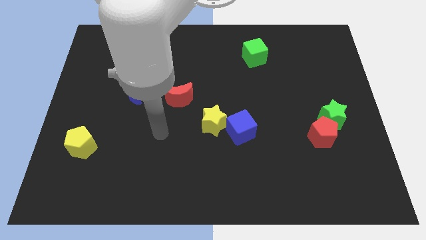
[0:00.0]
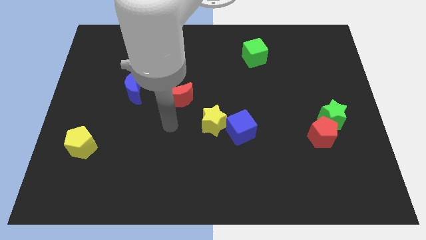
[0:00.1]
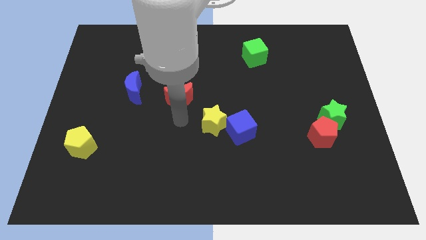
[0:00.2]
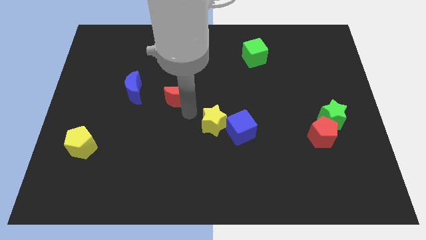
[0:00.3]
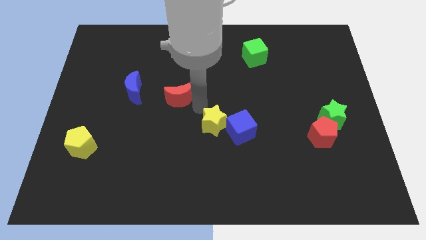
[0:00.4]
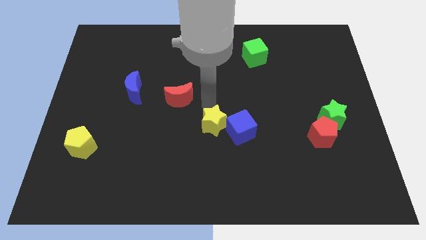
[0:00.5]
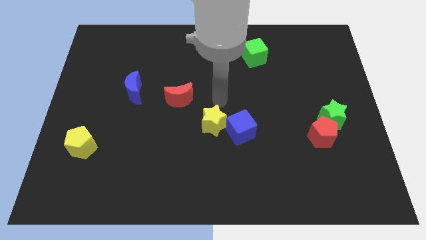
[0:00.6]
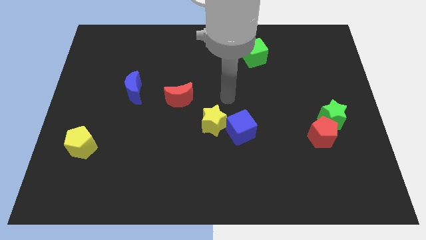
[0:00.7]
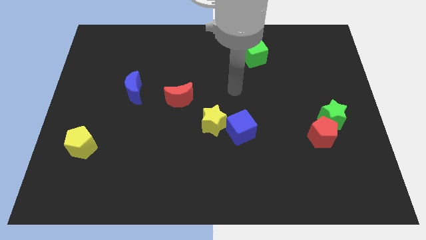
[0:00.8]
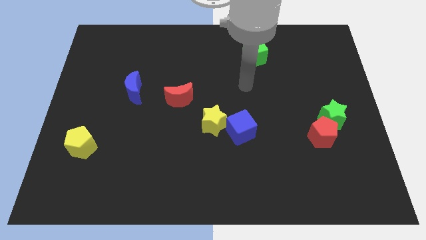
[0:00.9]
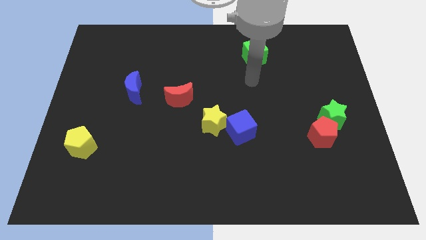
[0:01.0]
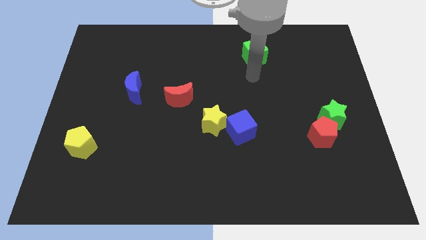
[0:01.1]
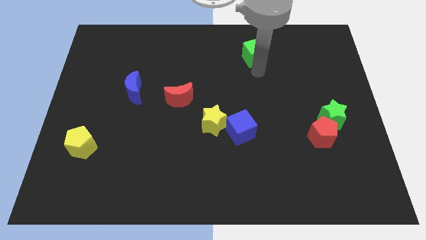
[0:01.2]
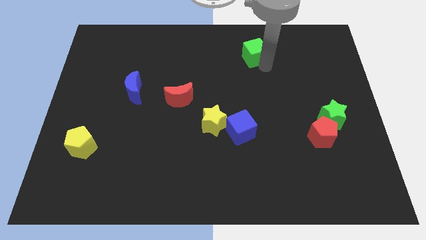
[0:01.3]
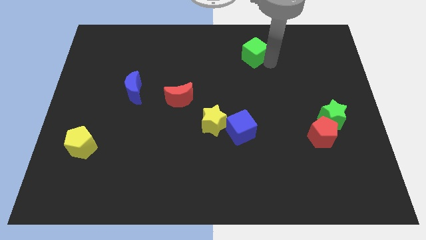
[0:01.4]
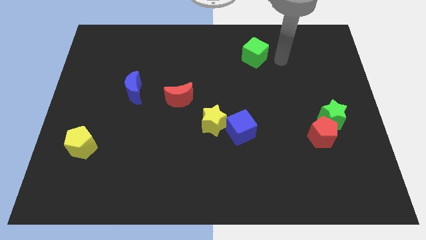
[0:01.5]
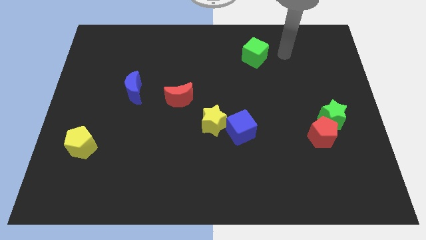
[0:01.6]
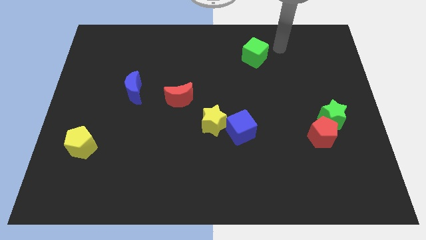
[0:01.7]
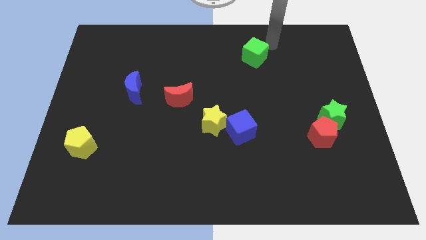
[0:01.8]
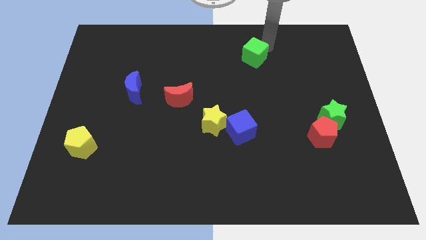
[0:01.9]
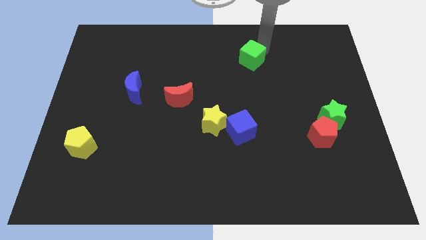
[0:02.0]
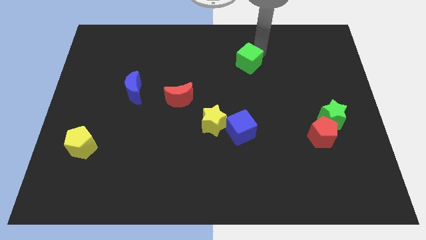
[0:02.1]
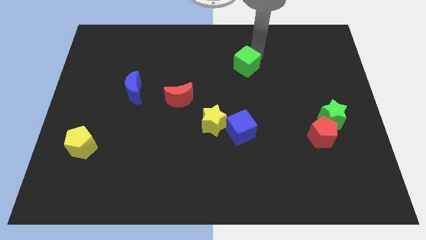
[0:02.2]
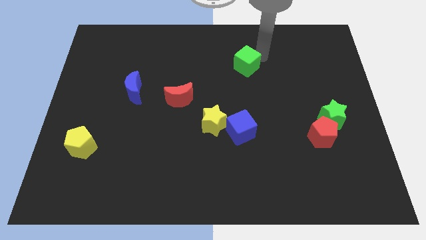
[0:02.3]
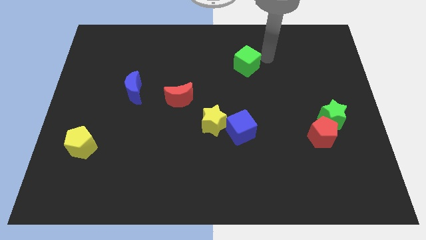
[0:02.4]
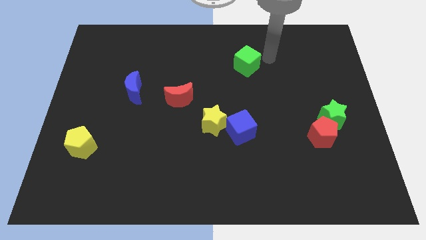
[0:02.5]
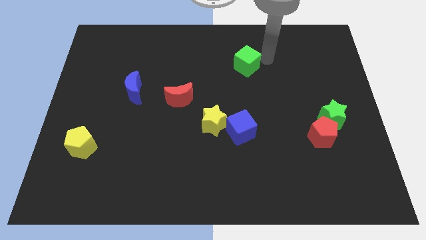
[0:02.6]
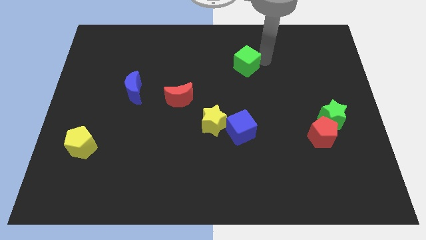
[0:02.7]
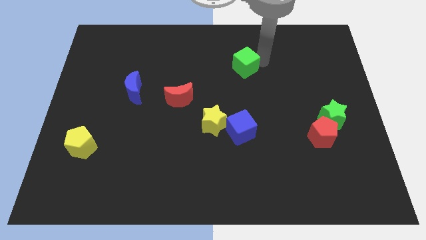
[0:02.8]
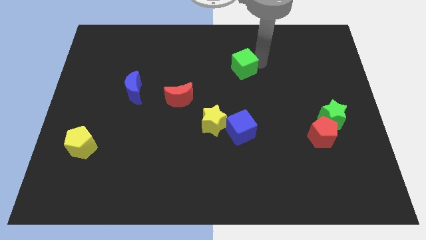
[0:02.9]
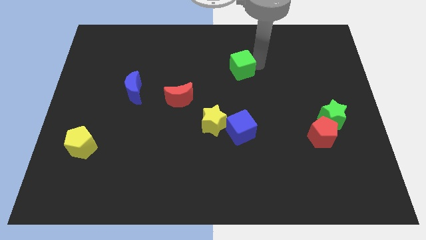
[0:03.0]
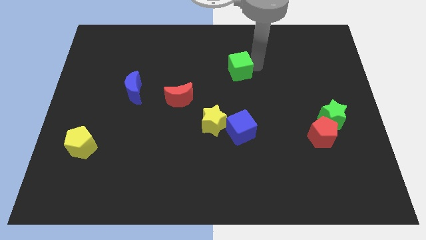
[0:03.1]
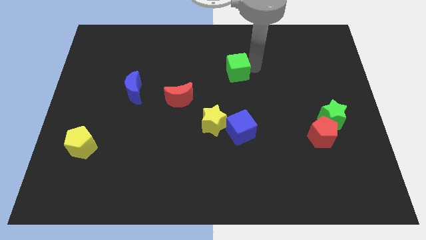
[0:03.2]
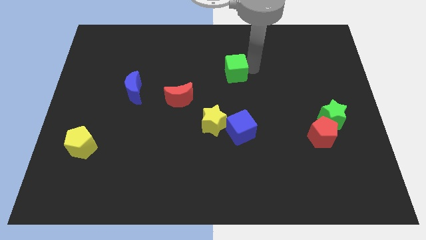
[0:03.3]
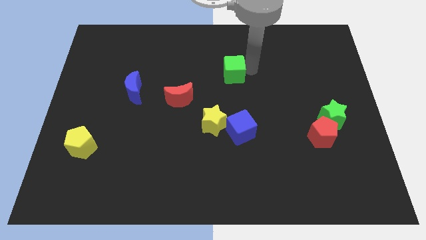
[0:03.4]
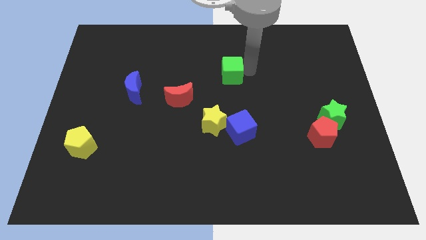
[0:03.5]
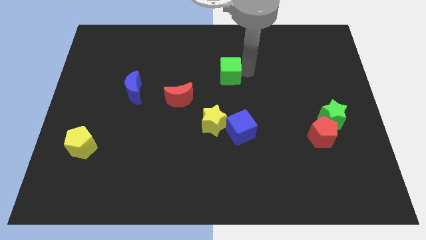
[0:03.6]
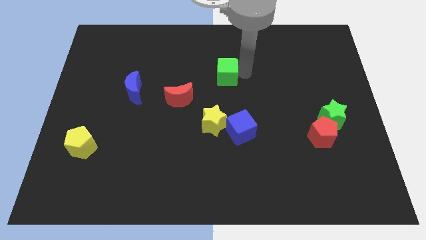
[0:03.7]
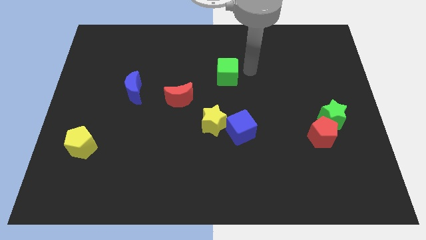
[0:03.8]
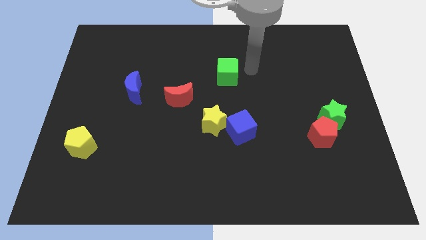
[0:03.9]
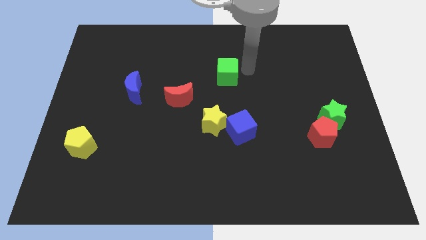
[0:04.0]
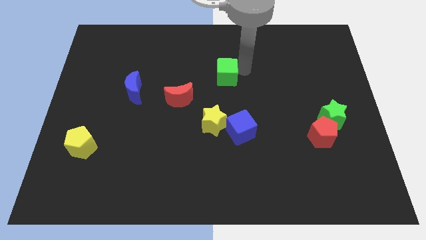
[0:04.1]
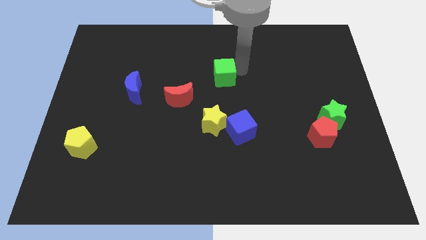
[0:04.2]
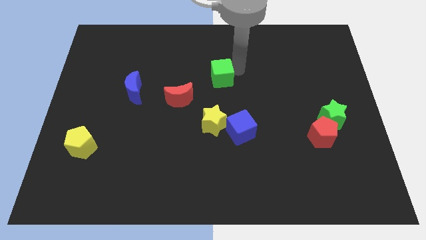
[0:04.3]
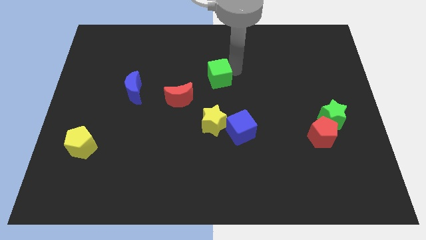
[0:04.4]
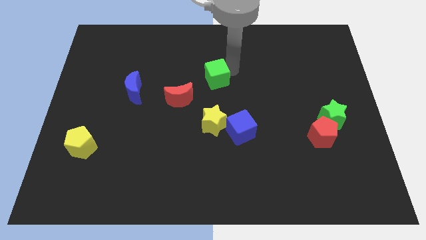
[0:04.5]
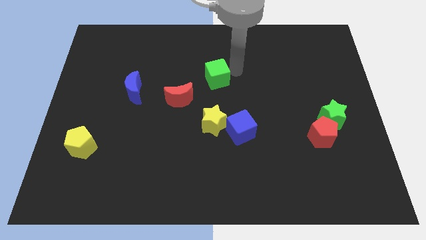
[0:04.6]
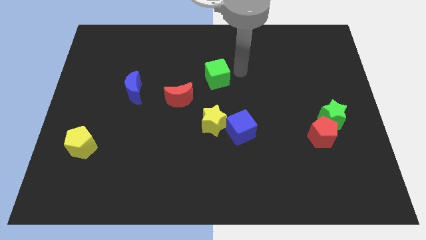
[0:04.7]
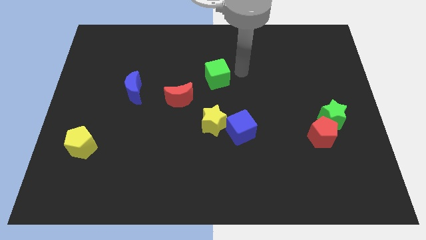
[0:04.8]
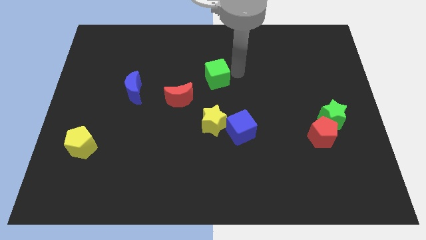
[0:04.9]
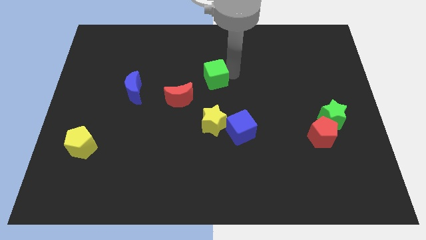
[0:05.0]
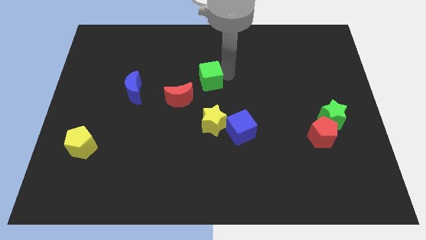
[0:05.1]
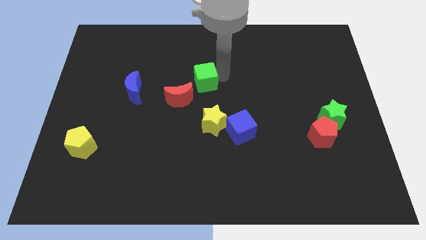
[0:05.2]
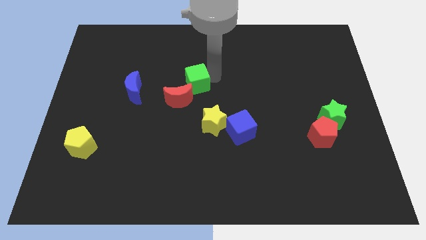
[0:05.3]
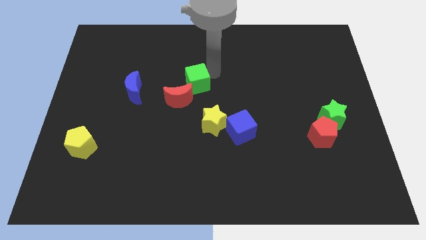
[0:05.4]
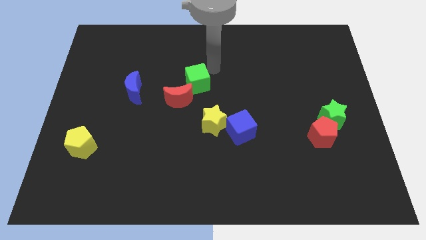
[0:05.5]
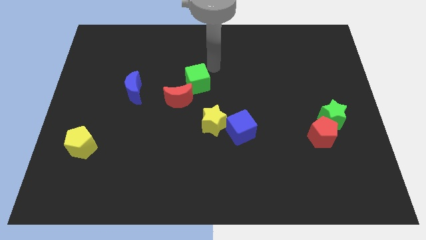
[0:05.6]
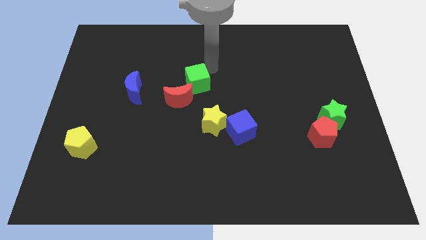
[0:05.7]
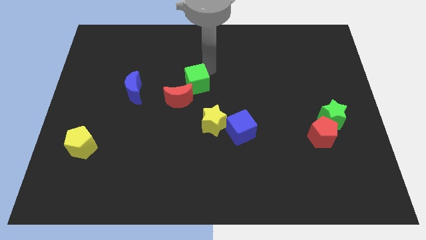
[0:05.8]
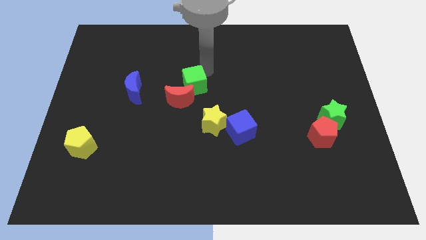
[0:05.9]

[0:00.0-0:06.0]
put the green cube towards the red moon

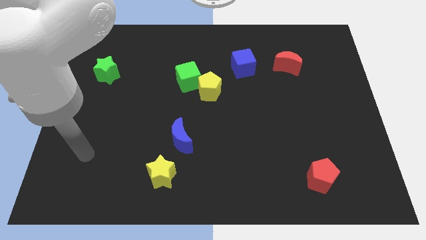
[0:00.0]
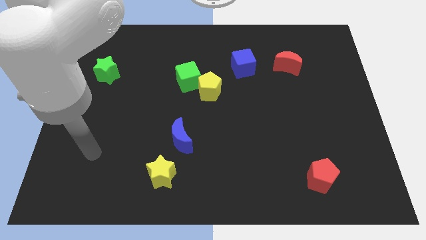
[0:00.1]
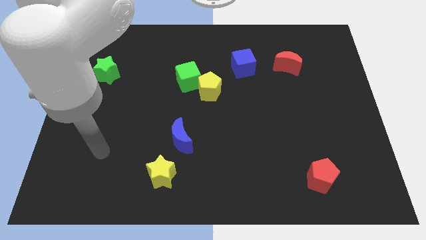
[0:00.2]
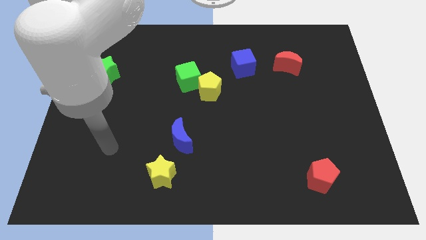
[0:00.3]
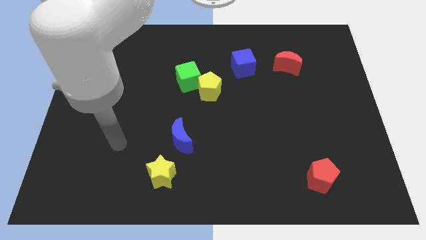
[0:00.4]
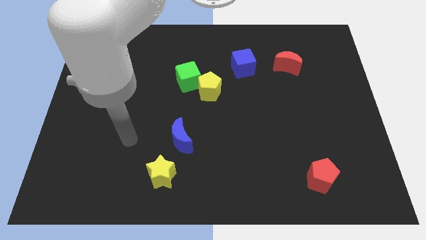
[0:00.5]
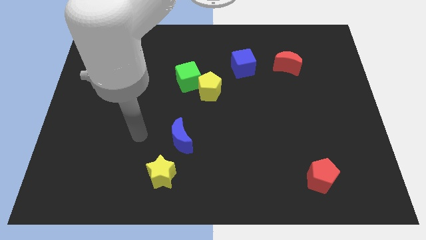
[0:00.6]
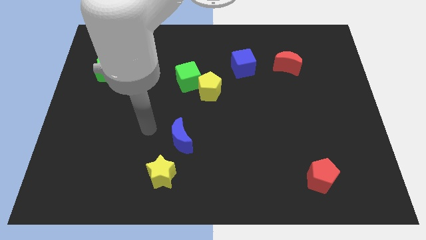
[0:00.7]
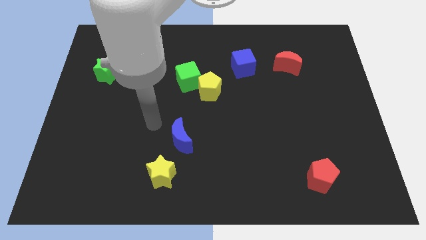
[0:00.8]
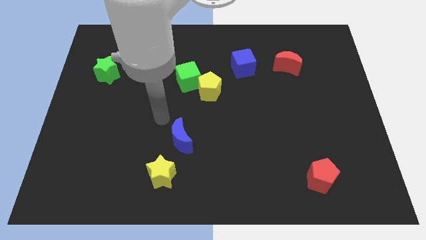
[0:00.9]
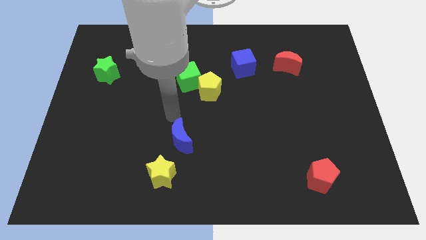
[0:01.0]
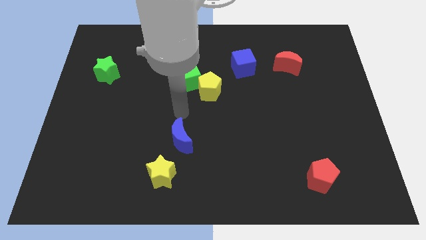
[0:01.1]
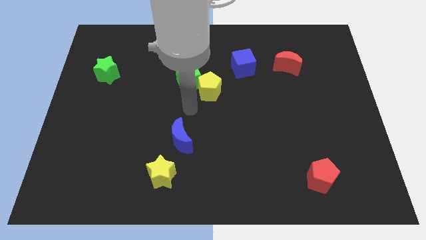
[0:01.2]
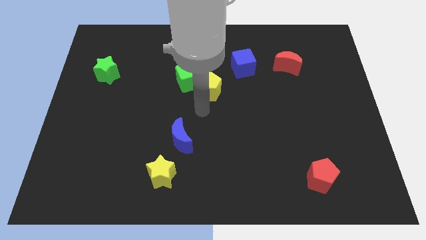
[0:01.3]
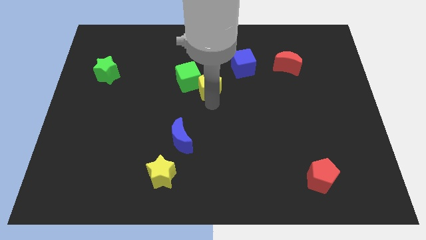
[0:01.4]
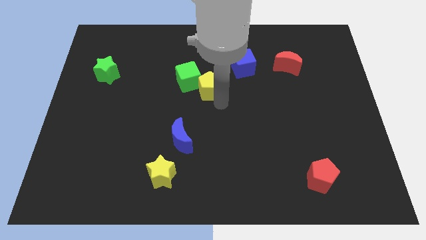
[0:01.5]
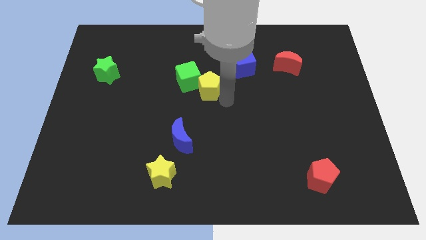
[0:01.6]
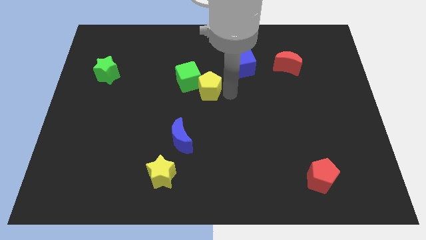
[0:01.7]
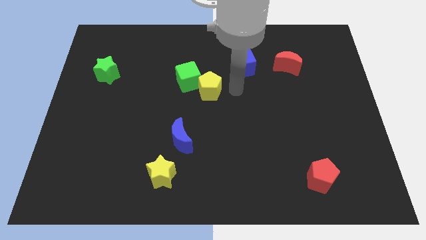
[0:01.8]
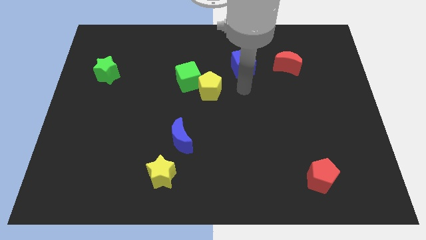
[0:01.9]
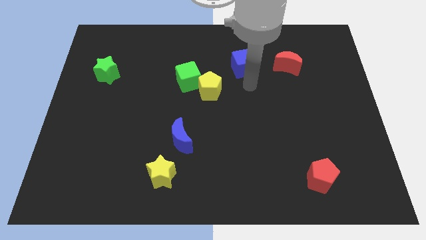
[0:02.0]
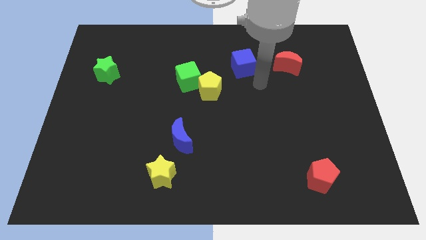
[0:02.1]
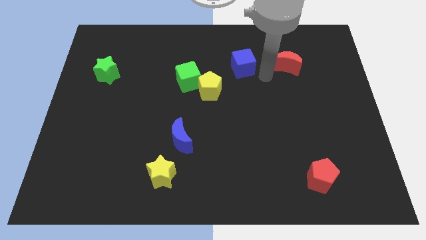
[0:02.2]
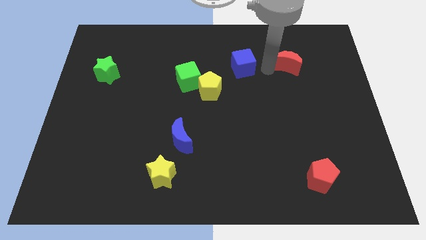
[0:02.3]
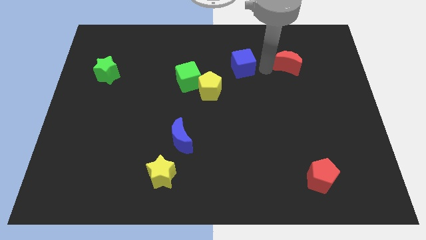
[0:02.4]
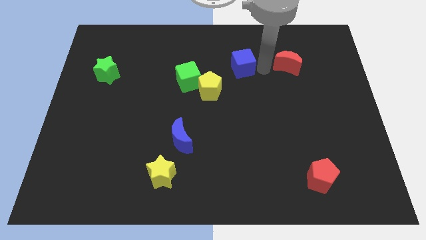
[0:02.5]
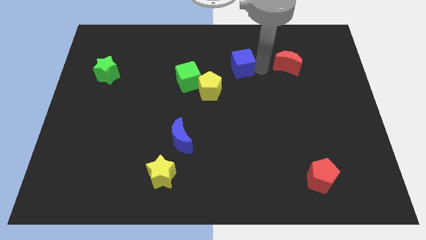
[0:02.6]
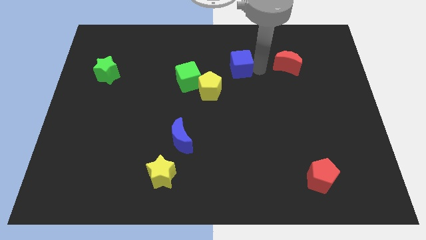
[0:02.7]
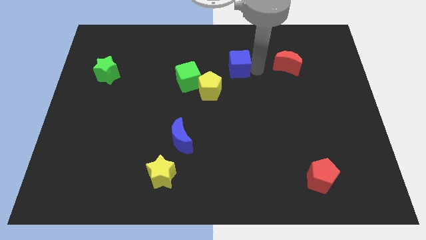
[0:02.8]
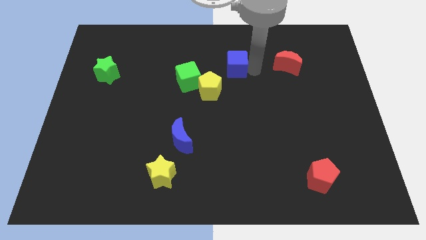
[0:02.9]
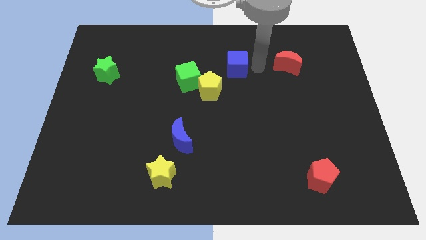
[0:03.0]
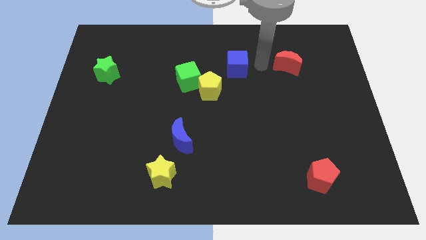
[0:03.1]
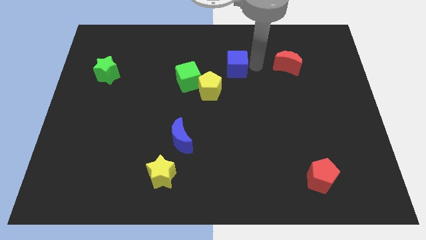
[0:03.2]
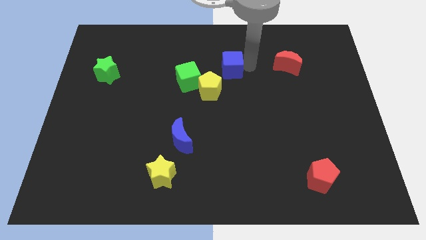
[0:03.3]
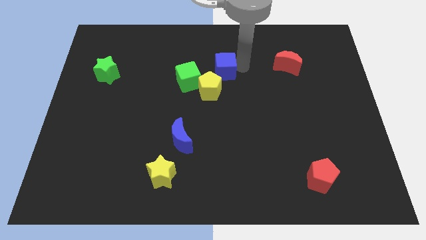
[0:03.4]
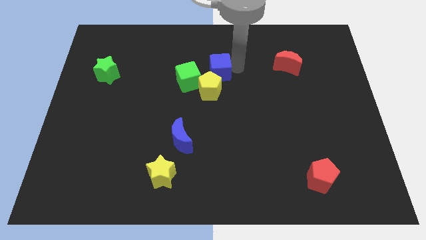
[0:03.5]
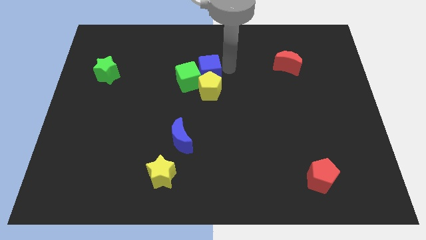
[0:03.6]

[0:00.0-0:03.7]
push the blue cube close to the green cube
